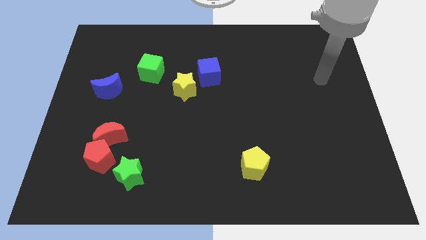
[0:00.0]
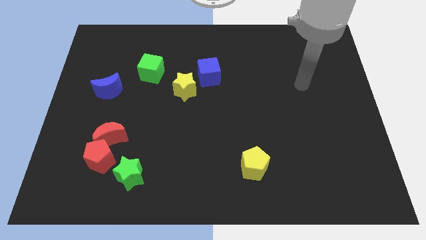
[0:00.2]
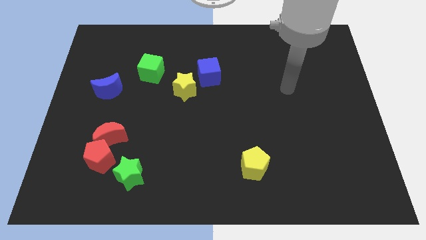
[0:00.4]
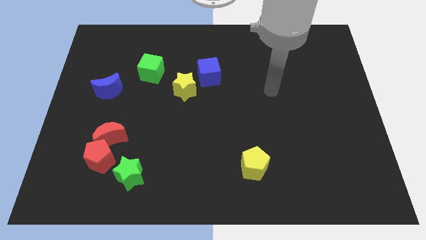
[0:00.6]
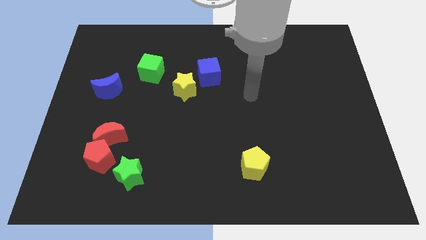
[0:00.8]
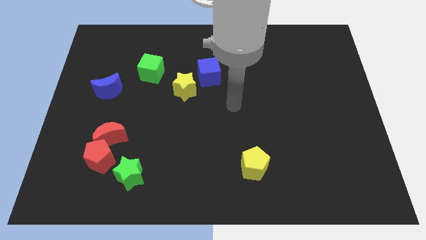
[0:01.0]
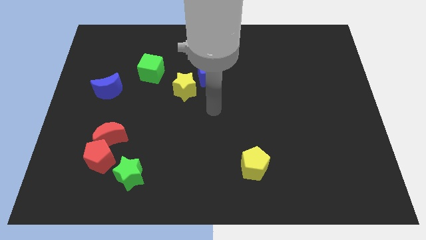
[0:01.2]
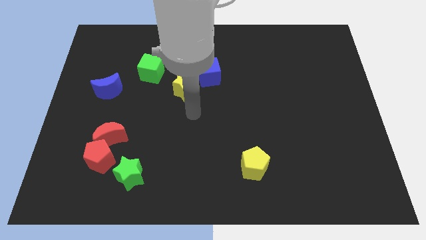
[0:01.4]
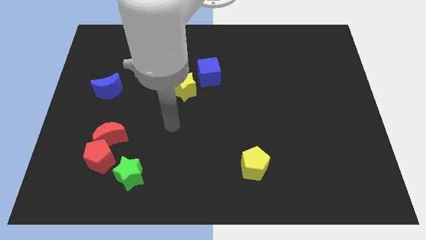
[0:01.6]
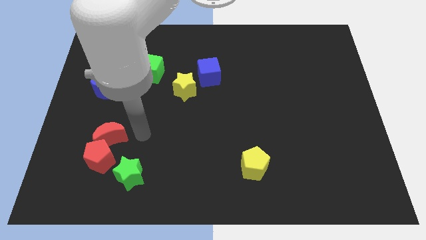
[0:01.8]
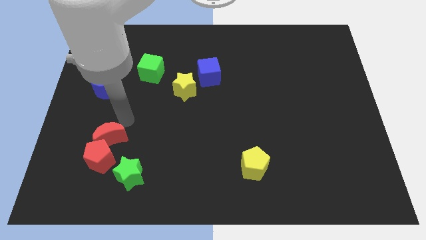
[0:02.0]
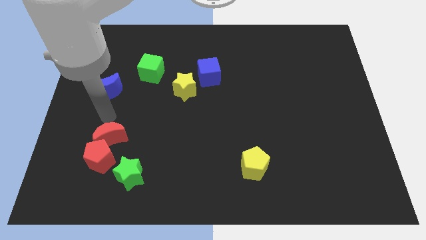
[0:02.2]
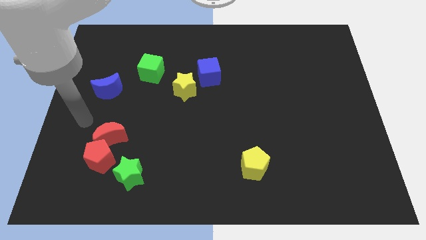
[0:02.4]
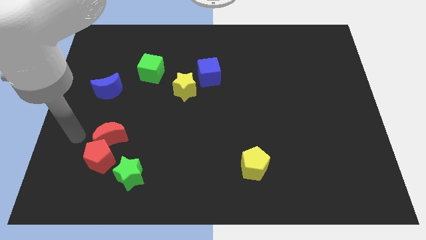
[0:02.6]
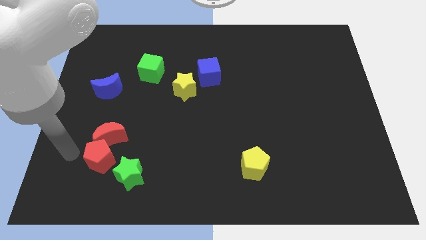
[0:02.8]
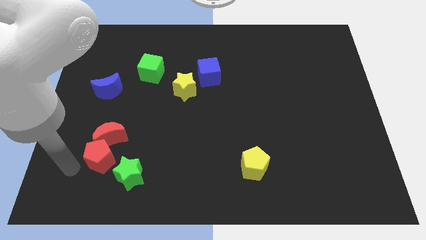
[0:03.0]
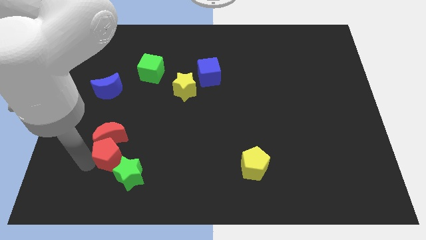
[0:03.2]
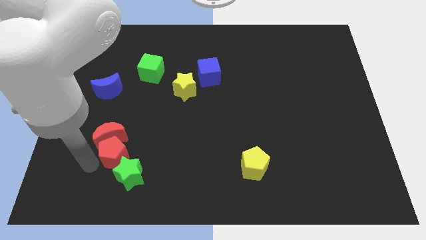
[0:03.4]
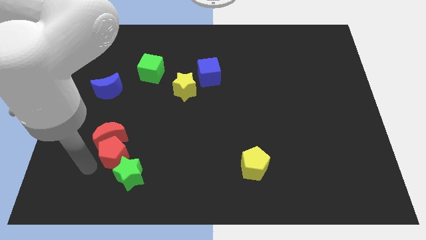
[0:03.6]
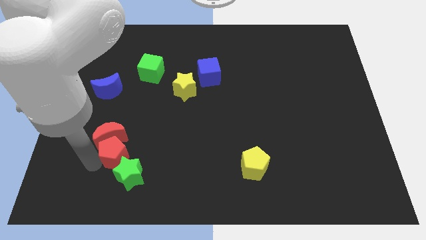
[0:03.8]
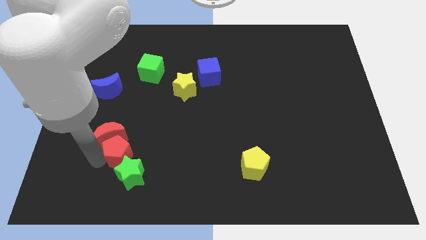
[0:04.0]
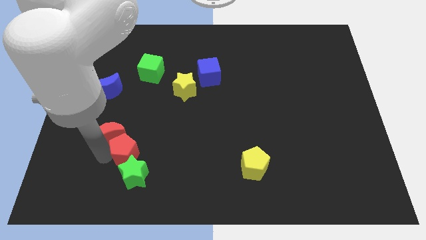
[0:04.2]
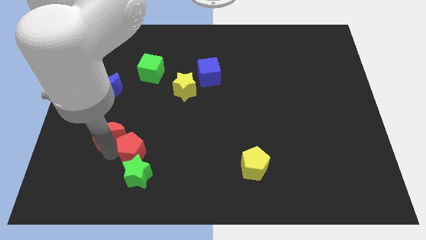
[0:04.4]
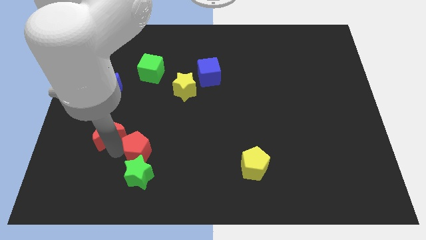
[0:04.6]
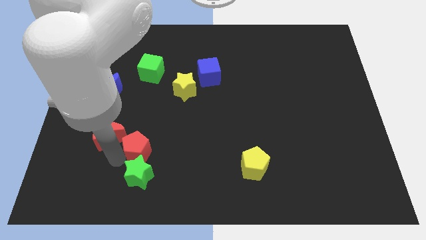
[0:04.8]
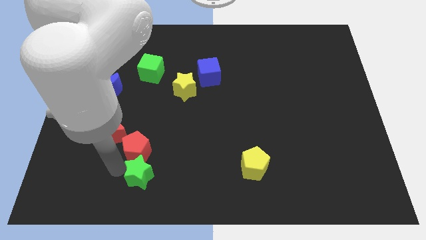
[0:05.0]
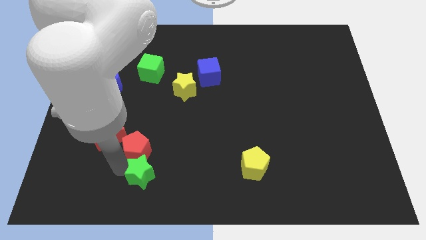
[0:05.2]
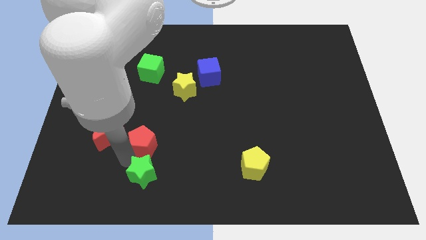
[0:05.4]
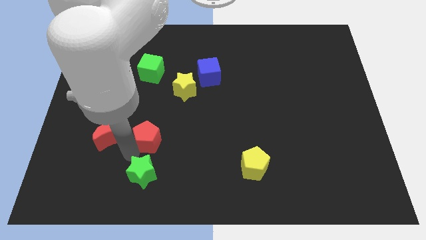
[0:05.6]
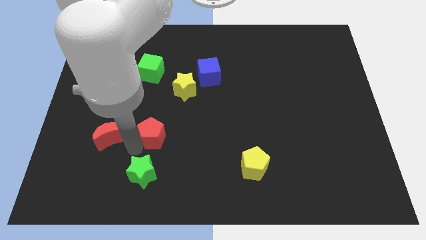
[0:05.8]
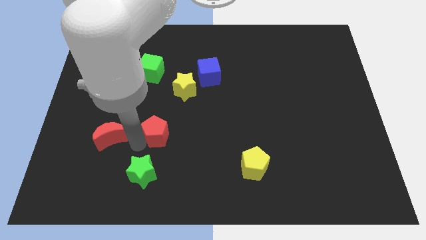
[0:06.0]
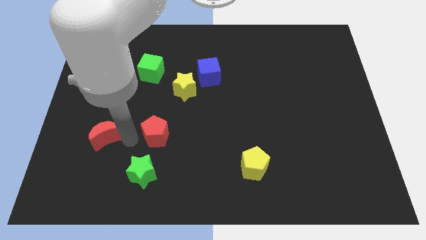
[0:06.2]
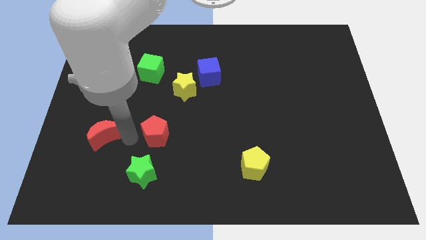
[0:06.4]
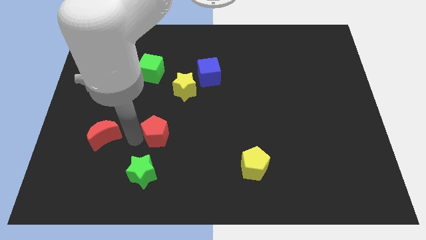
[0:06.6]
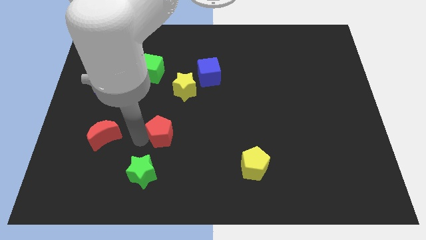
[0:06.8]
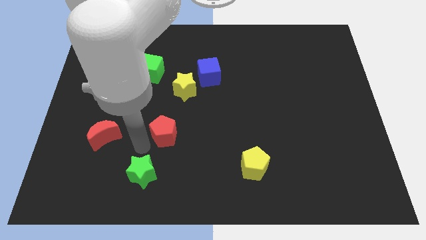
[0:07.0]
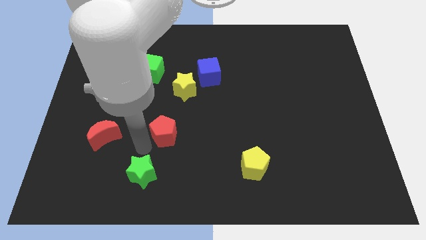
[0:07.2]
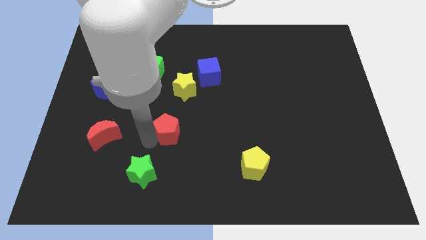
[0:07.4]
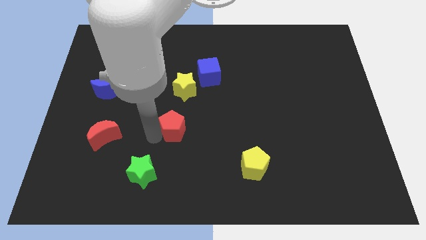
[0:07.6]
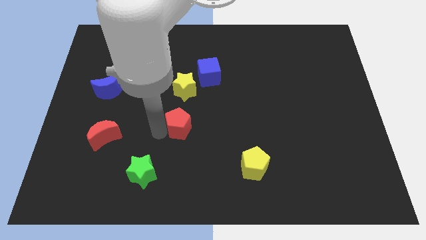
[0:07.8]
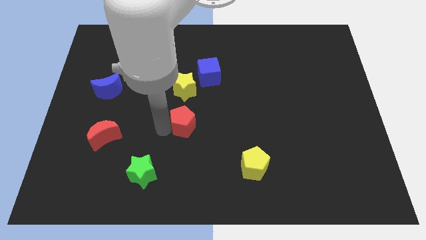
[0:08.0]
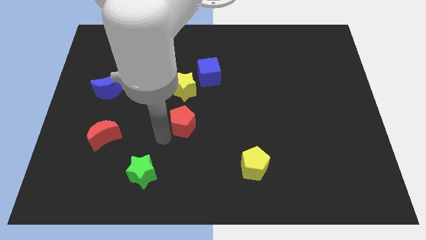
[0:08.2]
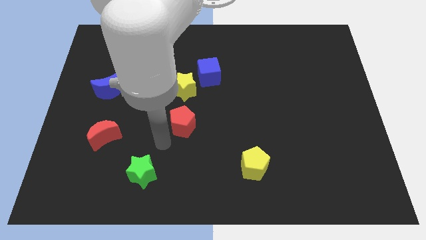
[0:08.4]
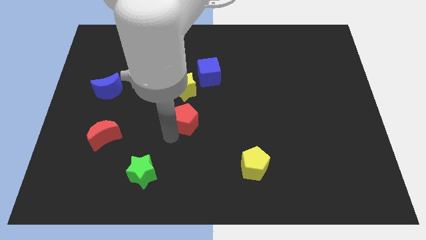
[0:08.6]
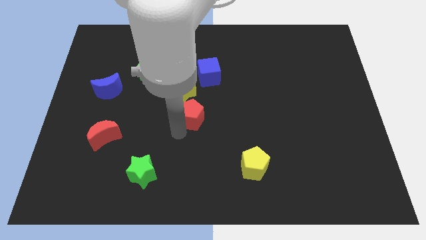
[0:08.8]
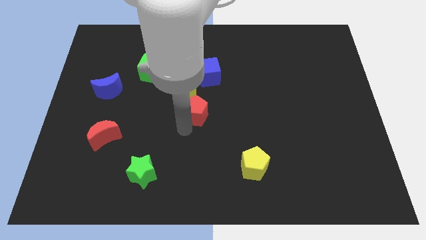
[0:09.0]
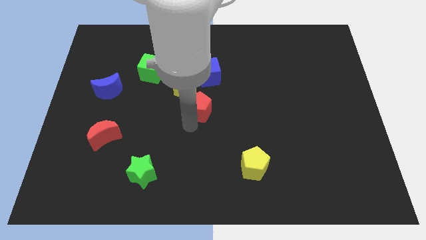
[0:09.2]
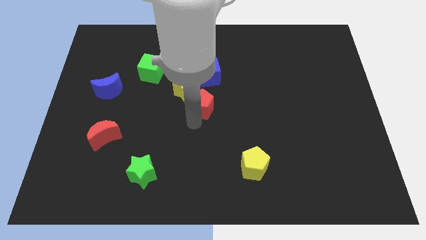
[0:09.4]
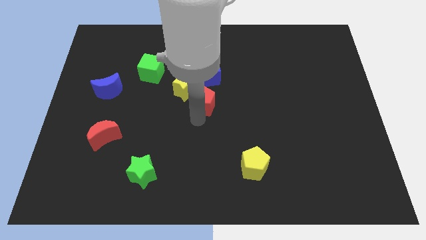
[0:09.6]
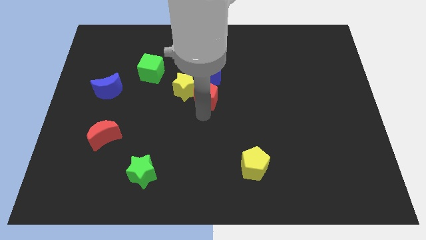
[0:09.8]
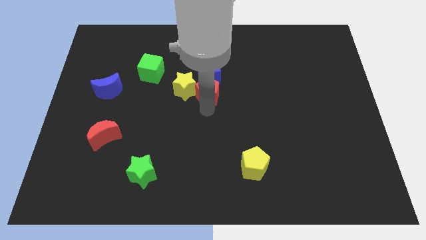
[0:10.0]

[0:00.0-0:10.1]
slide the red pentagon next to the blue cube

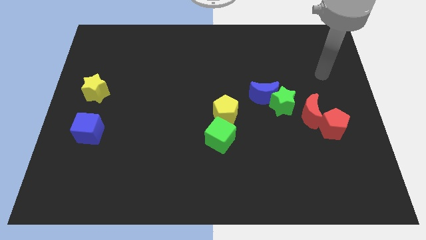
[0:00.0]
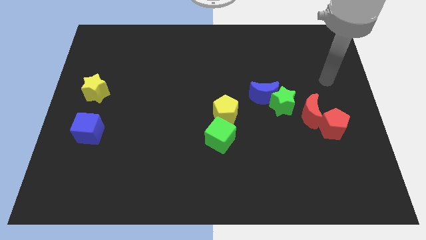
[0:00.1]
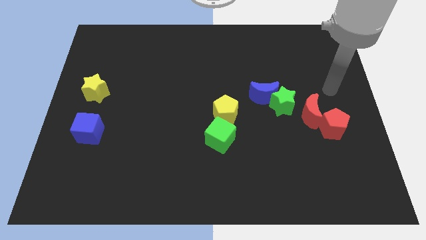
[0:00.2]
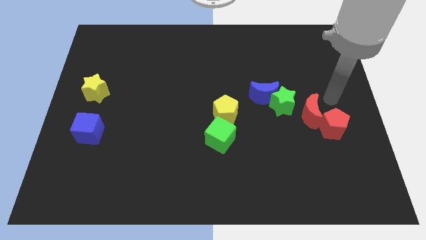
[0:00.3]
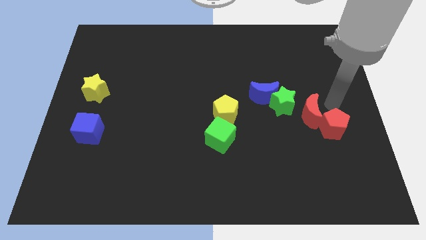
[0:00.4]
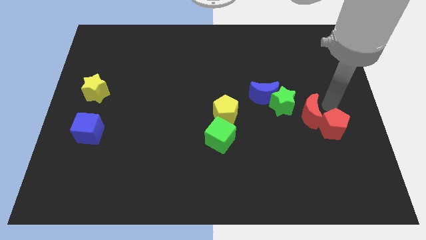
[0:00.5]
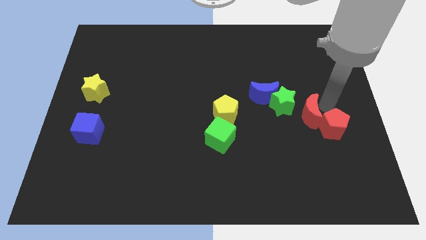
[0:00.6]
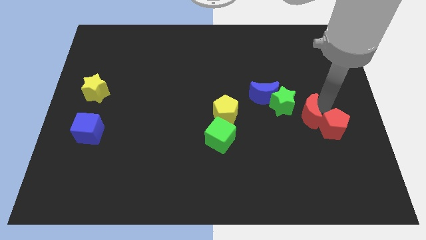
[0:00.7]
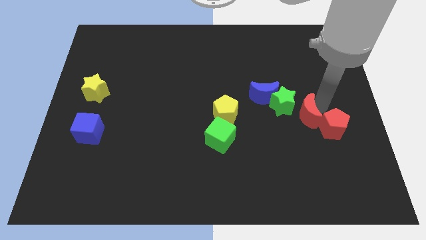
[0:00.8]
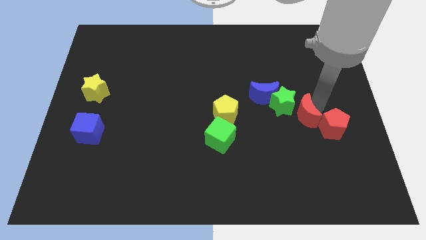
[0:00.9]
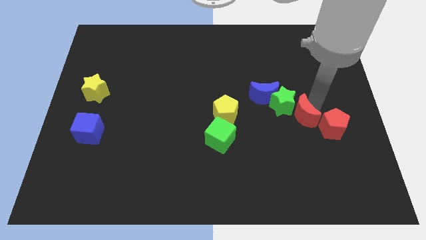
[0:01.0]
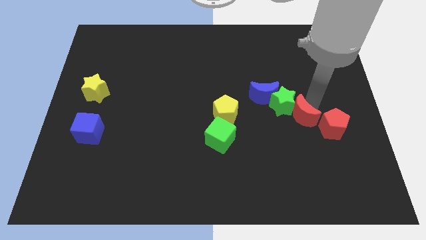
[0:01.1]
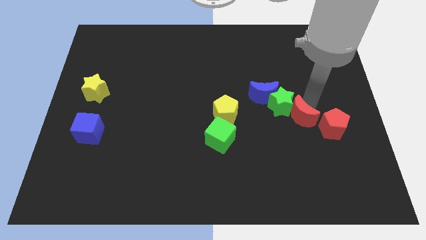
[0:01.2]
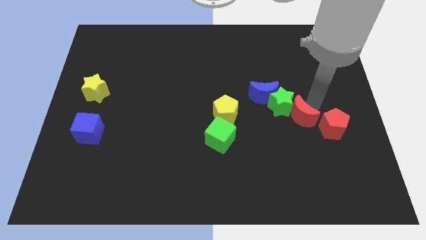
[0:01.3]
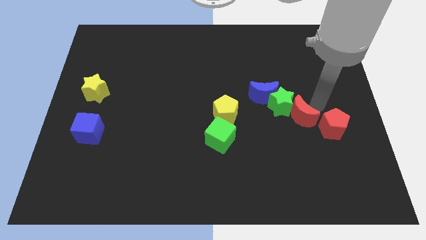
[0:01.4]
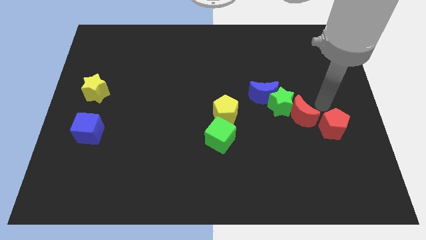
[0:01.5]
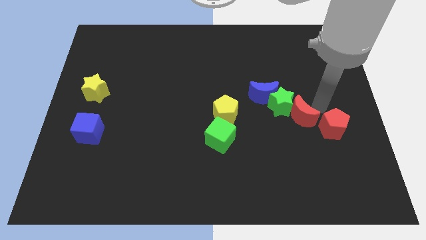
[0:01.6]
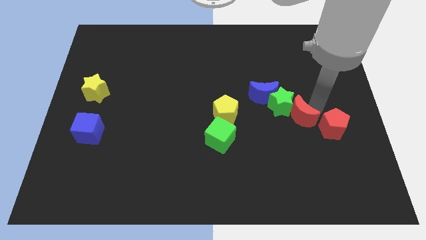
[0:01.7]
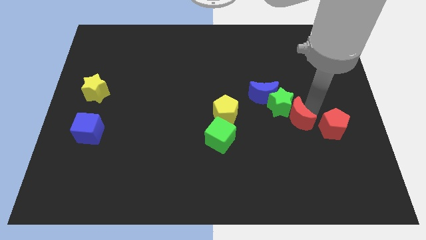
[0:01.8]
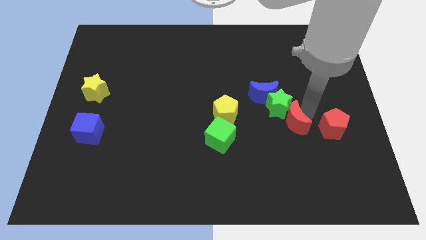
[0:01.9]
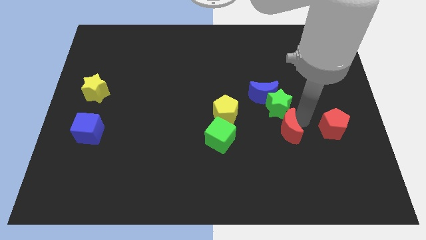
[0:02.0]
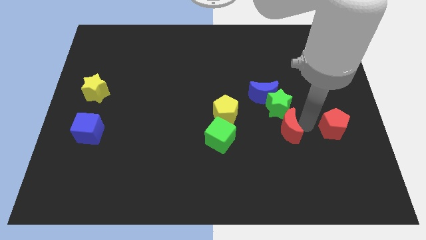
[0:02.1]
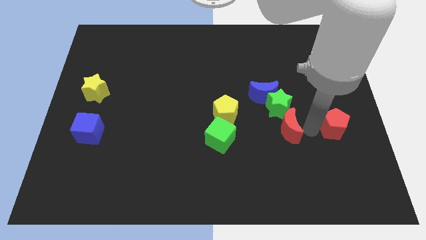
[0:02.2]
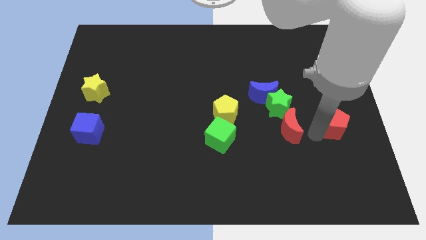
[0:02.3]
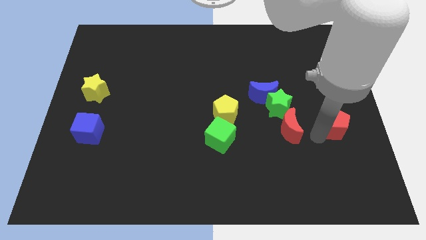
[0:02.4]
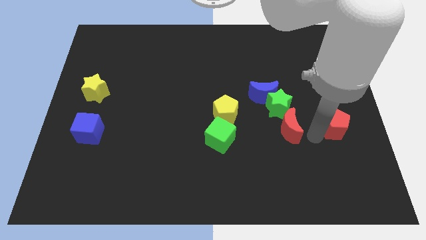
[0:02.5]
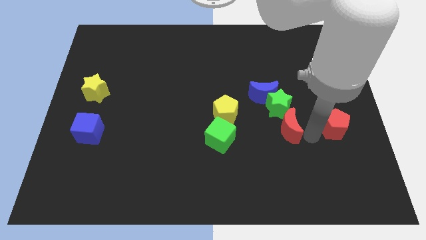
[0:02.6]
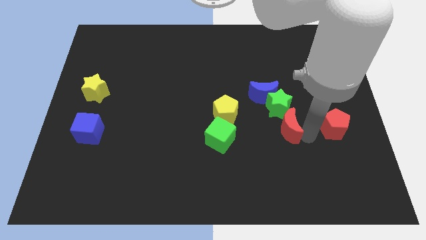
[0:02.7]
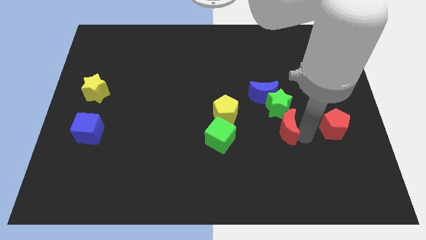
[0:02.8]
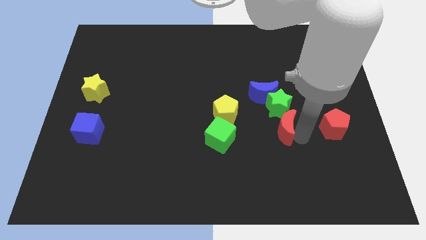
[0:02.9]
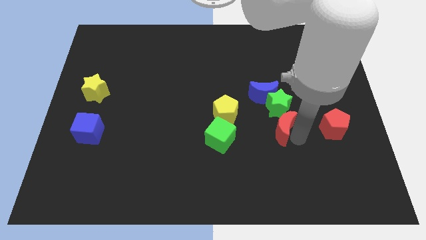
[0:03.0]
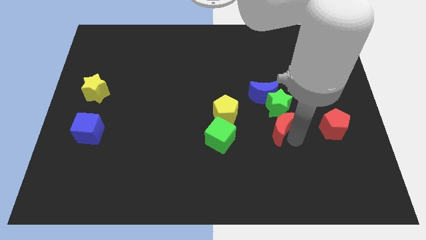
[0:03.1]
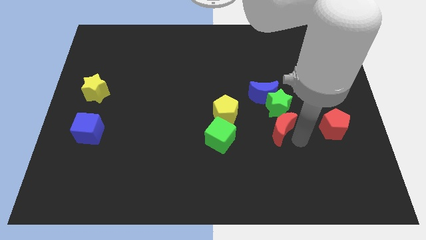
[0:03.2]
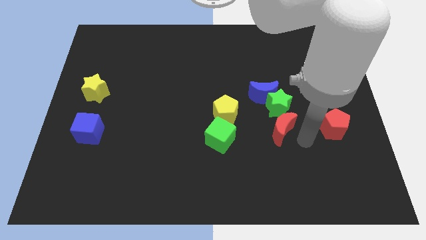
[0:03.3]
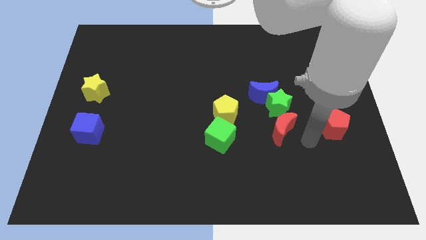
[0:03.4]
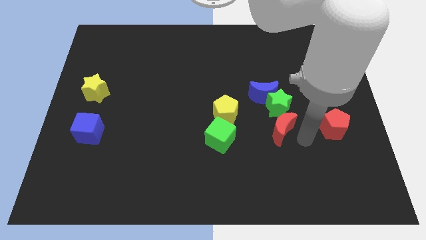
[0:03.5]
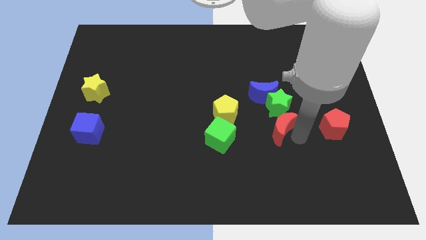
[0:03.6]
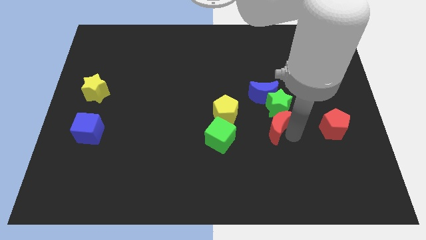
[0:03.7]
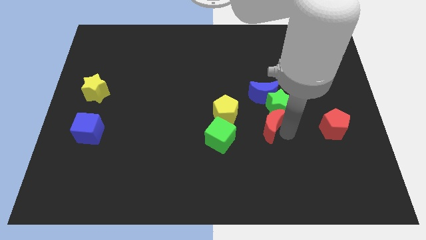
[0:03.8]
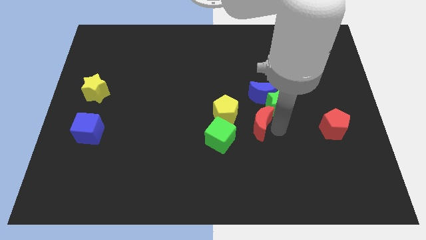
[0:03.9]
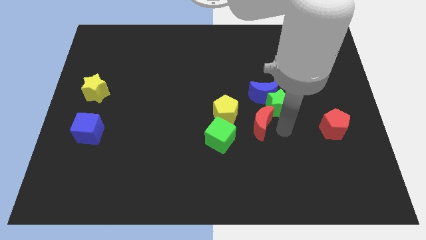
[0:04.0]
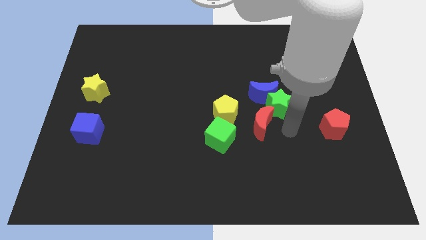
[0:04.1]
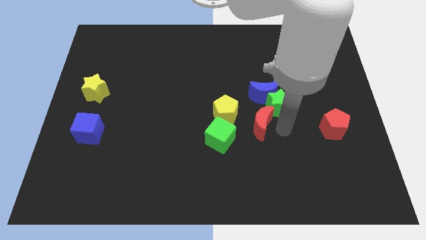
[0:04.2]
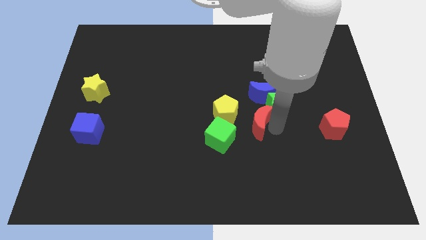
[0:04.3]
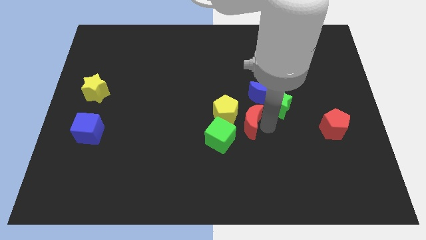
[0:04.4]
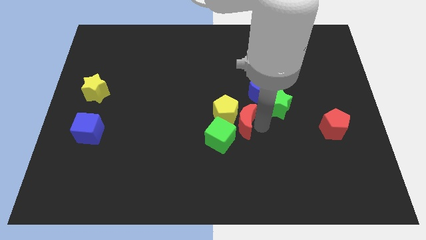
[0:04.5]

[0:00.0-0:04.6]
move the red moon to the yellow pentagon
